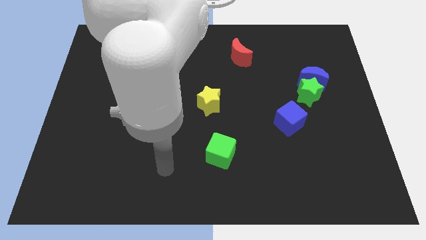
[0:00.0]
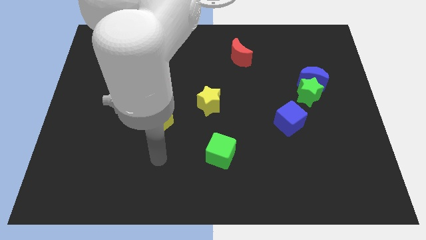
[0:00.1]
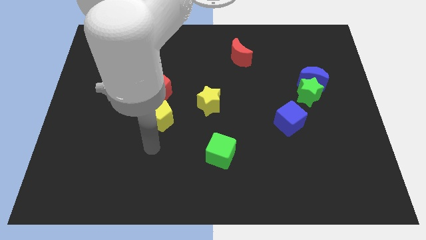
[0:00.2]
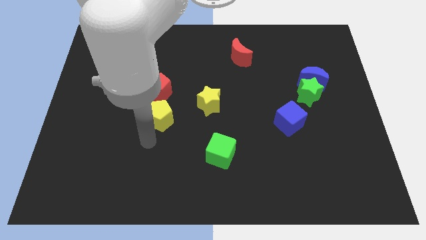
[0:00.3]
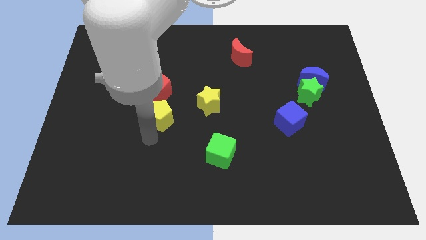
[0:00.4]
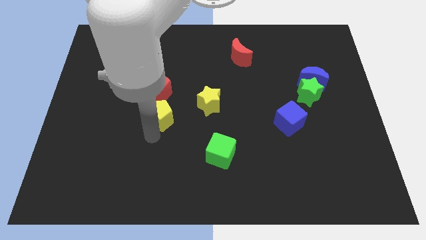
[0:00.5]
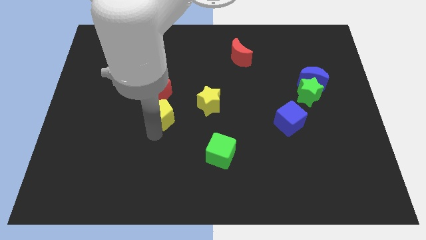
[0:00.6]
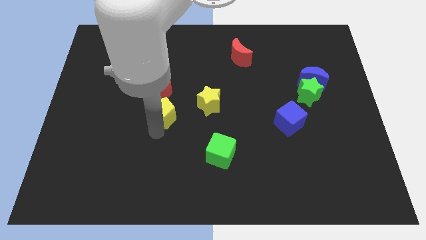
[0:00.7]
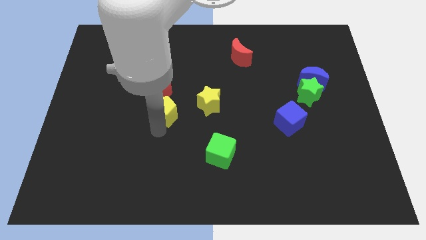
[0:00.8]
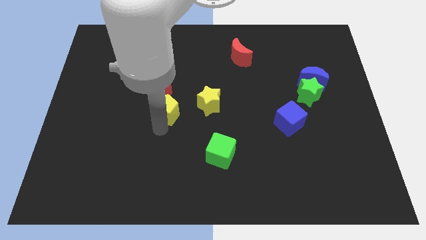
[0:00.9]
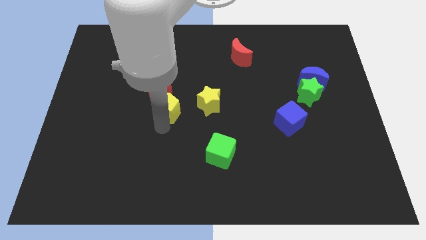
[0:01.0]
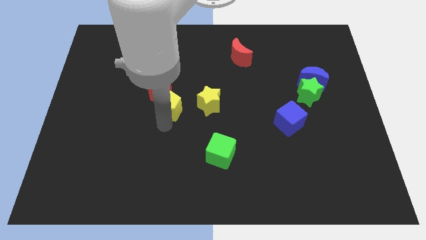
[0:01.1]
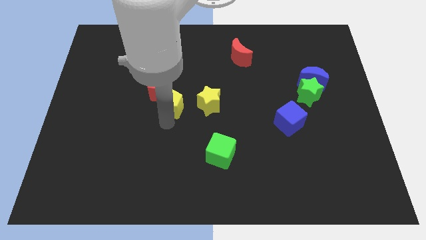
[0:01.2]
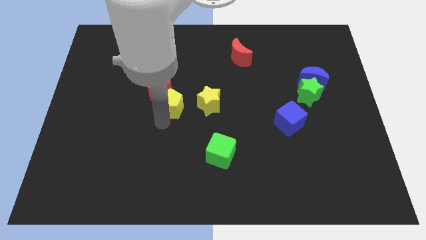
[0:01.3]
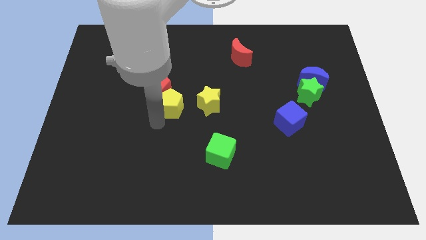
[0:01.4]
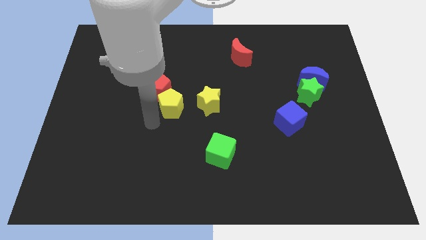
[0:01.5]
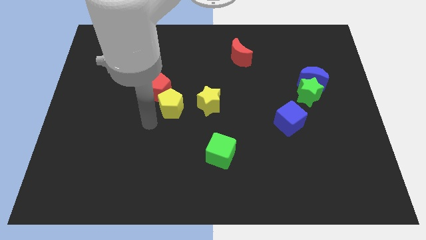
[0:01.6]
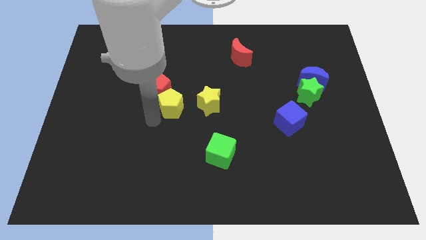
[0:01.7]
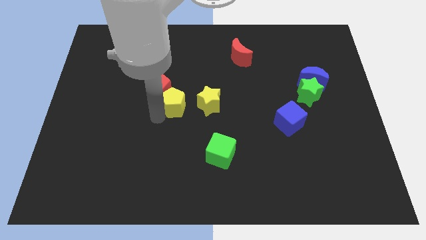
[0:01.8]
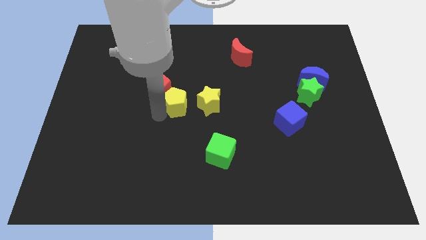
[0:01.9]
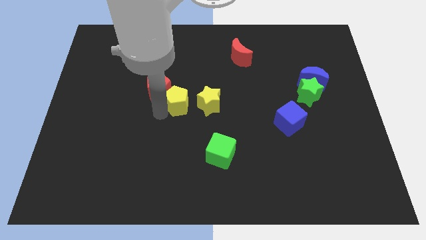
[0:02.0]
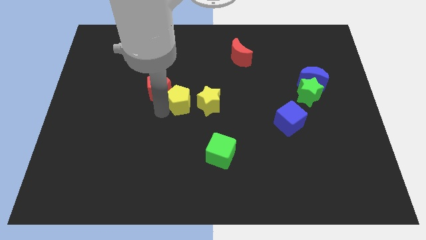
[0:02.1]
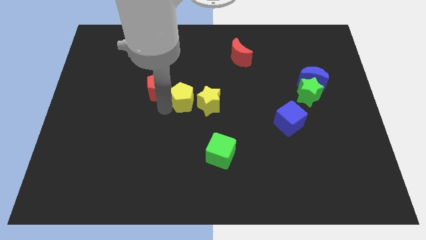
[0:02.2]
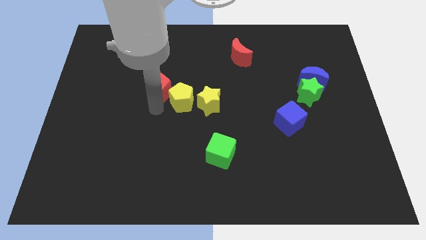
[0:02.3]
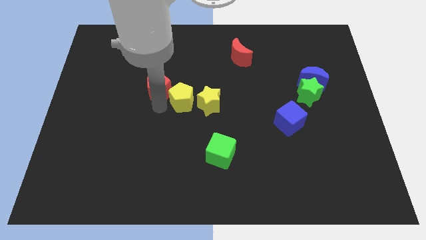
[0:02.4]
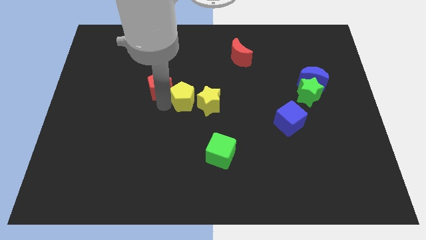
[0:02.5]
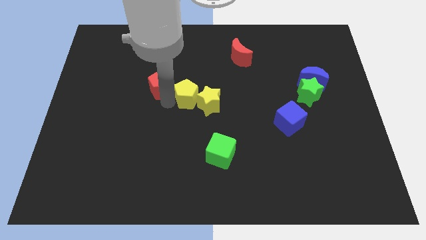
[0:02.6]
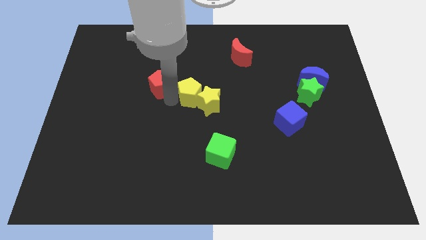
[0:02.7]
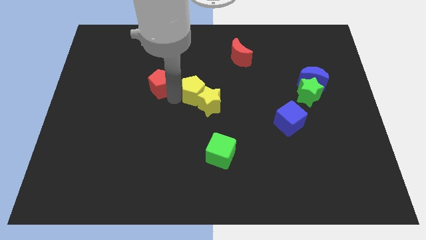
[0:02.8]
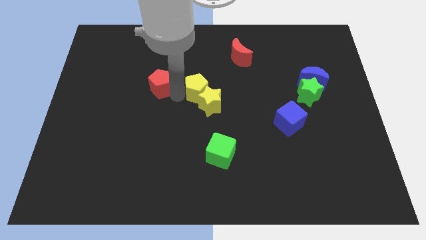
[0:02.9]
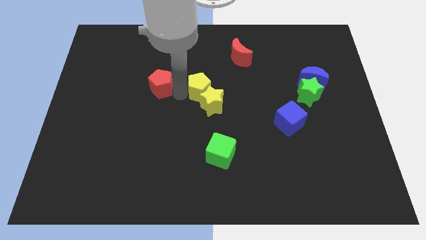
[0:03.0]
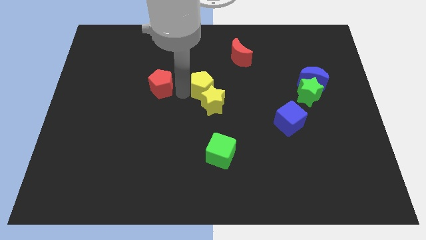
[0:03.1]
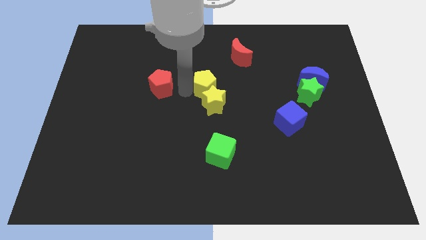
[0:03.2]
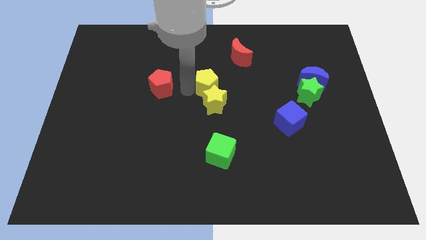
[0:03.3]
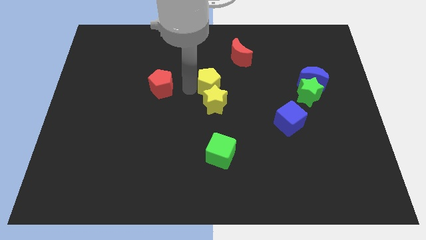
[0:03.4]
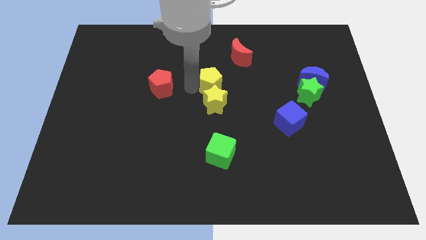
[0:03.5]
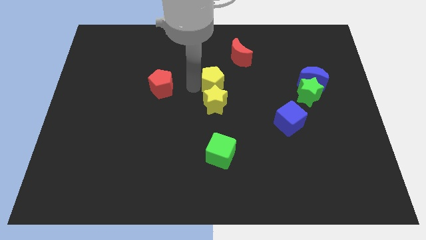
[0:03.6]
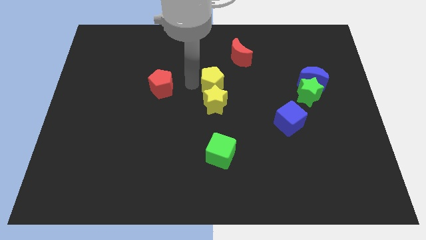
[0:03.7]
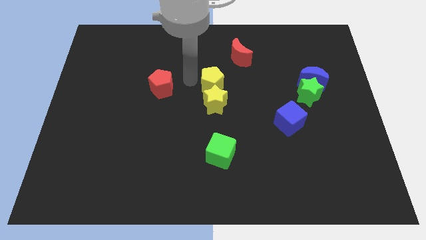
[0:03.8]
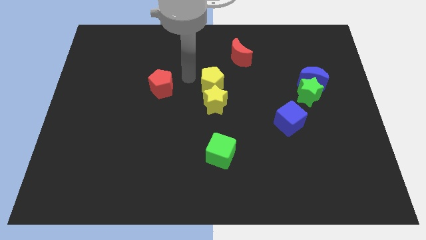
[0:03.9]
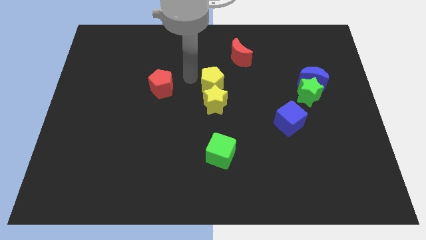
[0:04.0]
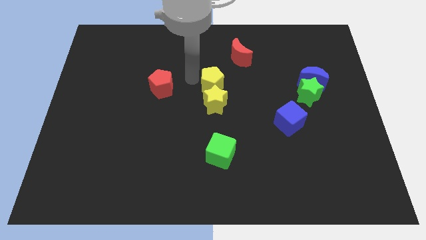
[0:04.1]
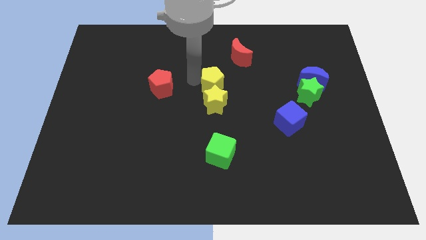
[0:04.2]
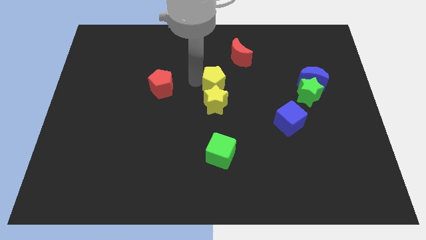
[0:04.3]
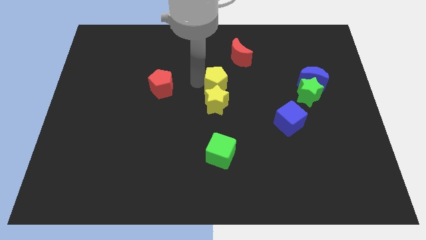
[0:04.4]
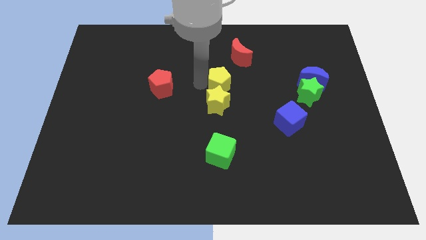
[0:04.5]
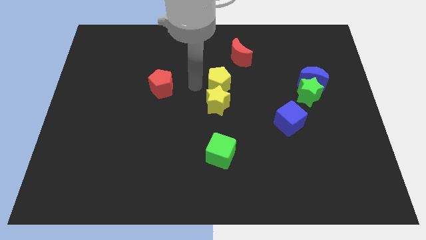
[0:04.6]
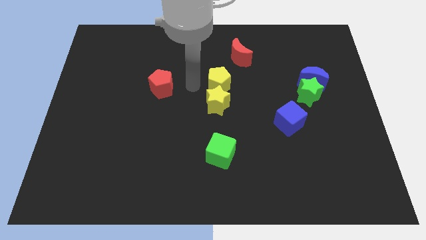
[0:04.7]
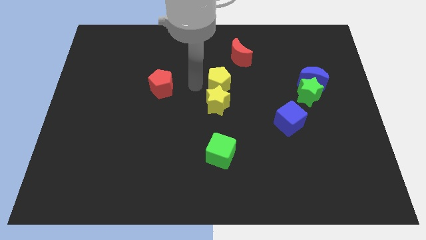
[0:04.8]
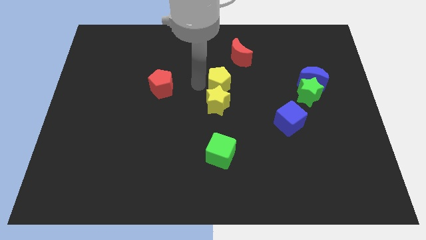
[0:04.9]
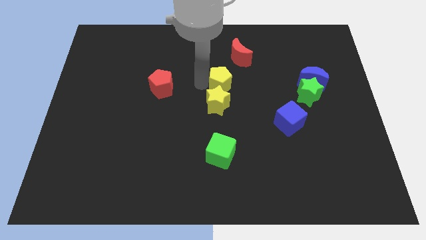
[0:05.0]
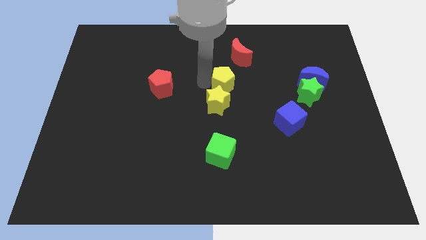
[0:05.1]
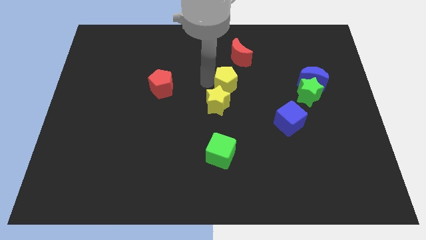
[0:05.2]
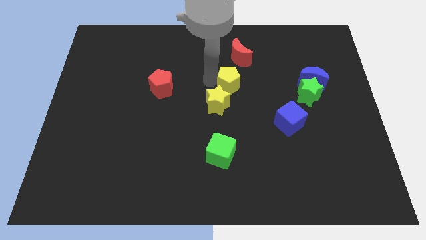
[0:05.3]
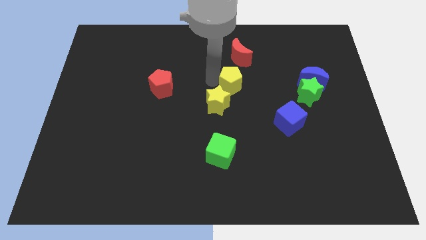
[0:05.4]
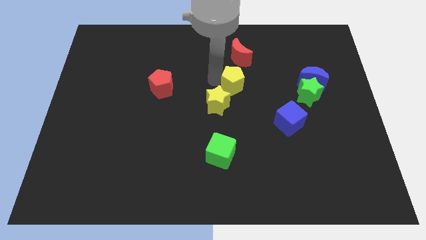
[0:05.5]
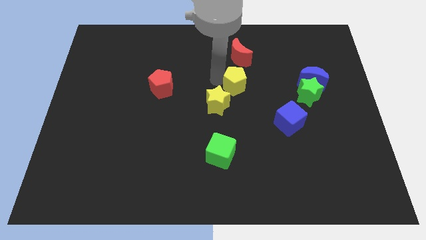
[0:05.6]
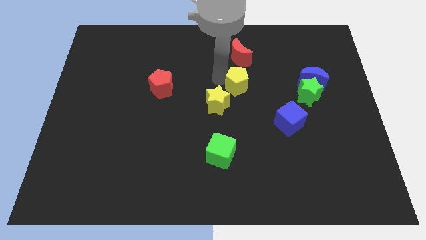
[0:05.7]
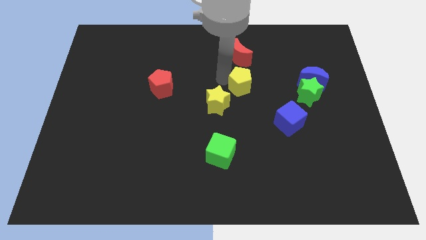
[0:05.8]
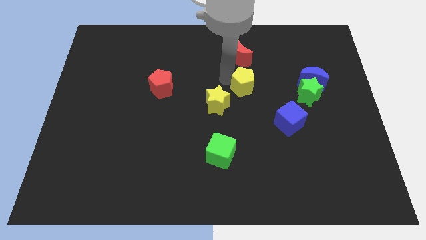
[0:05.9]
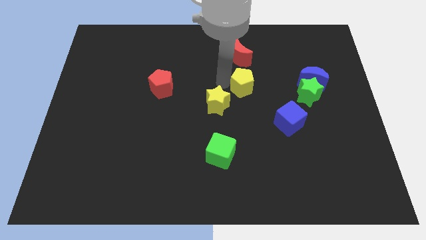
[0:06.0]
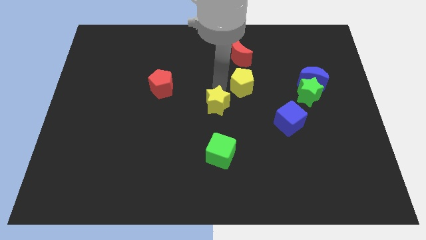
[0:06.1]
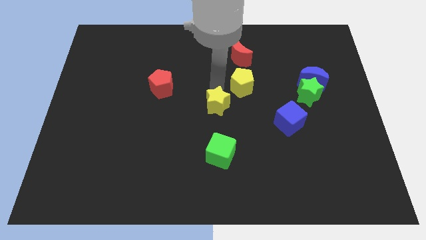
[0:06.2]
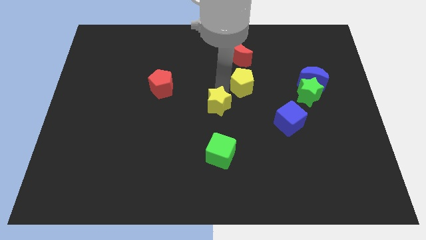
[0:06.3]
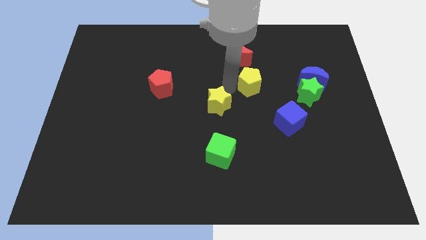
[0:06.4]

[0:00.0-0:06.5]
slide the yellow pentagon just left of the blue moon

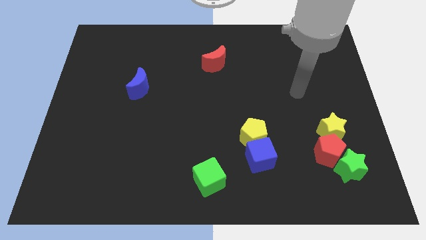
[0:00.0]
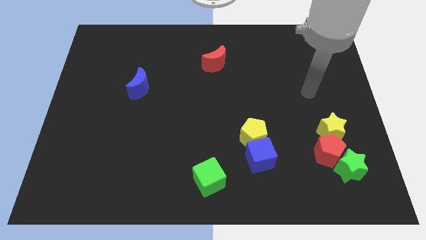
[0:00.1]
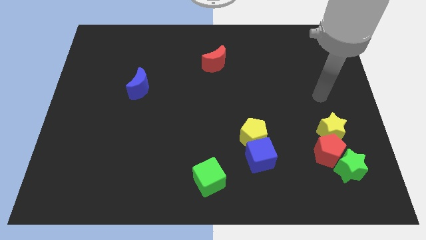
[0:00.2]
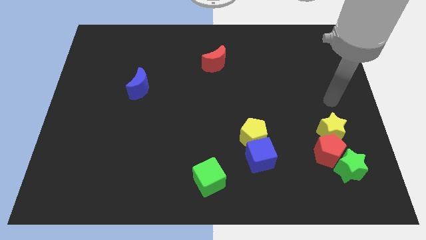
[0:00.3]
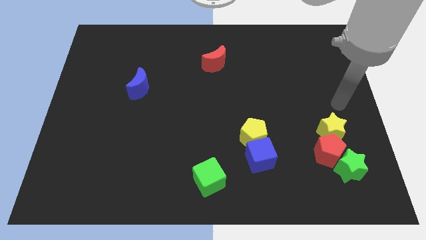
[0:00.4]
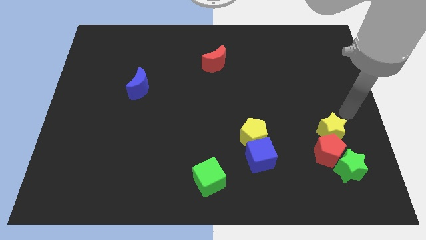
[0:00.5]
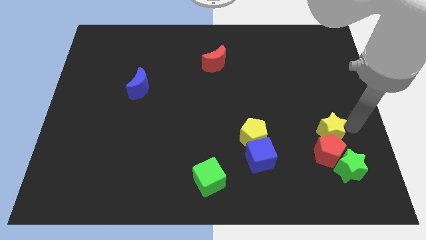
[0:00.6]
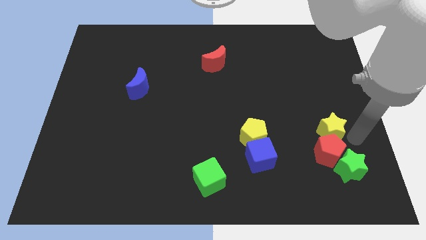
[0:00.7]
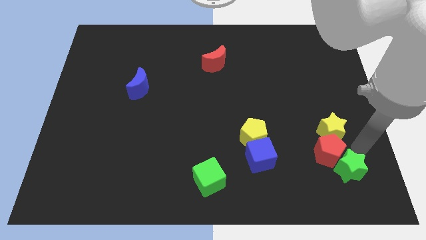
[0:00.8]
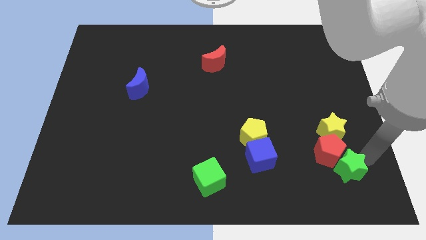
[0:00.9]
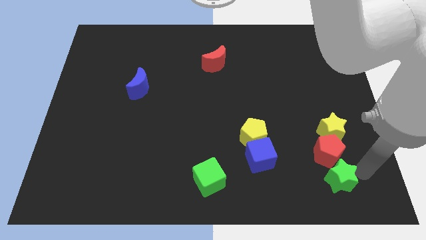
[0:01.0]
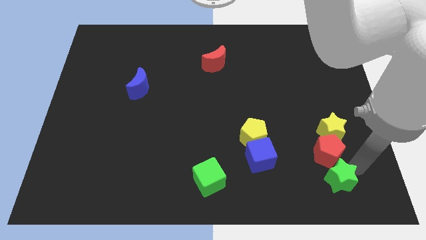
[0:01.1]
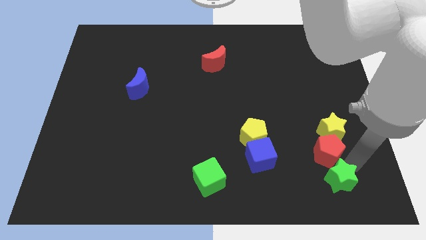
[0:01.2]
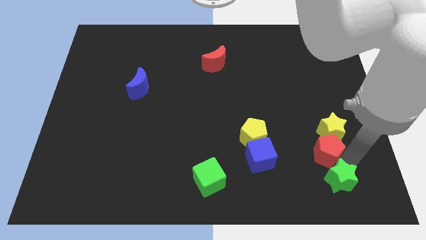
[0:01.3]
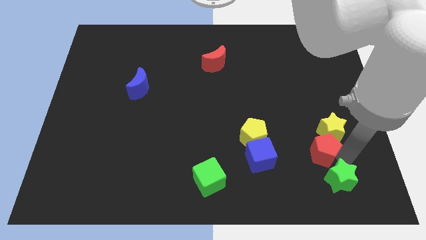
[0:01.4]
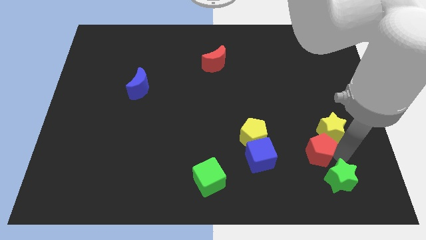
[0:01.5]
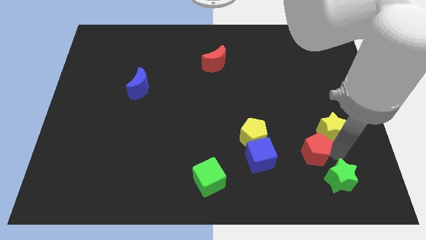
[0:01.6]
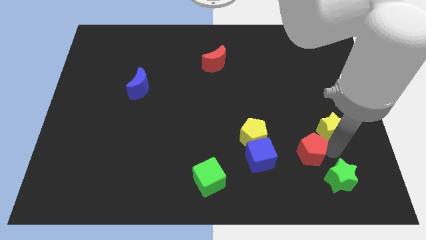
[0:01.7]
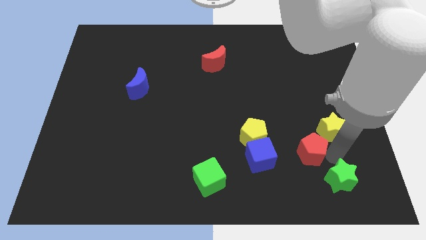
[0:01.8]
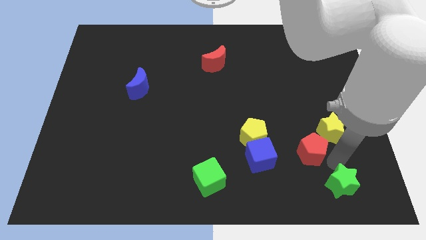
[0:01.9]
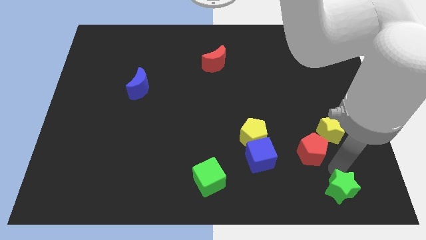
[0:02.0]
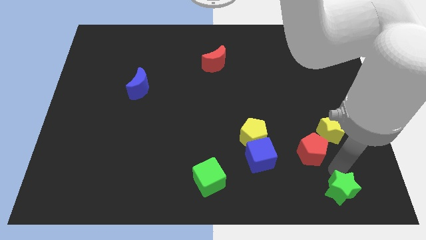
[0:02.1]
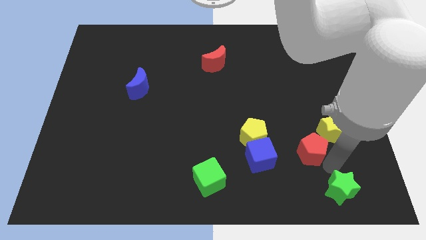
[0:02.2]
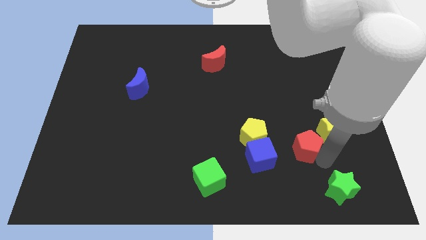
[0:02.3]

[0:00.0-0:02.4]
push the red pentagon to the left of the yellow star
